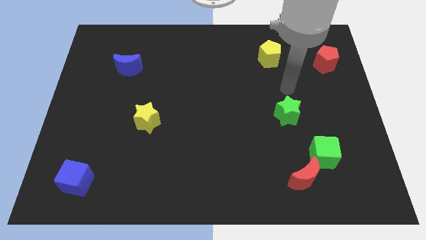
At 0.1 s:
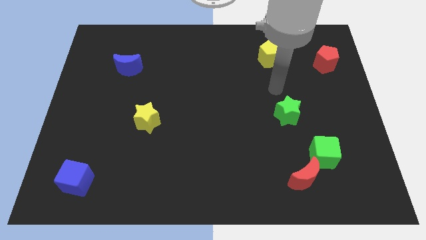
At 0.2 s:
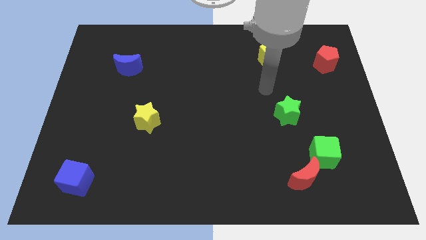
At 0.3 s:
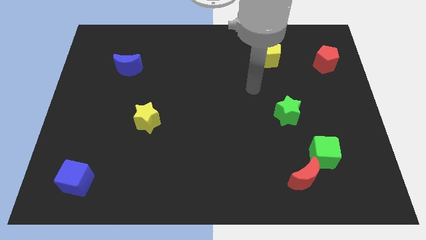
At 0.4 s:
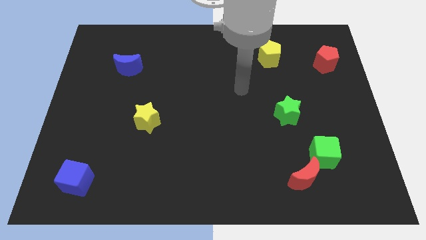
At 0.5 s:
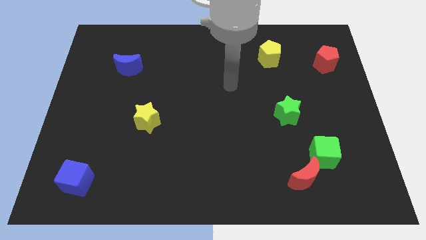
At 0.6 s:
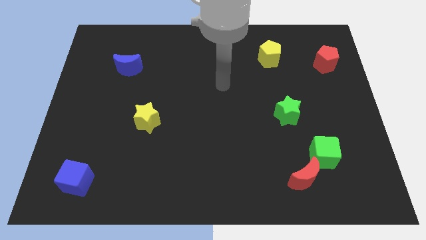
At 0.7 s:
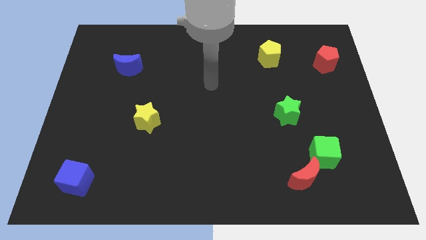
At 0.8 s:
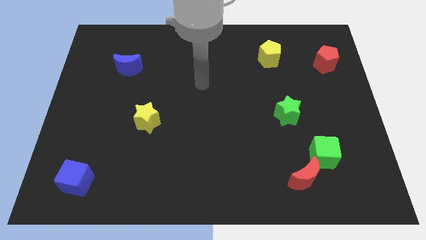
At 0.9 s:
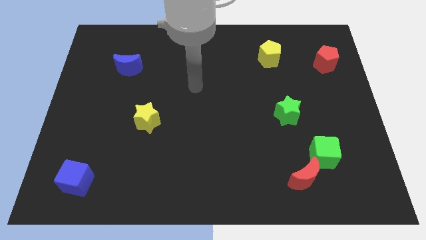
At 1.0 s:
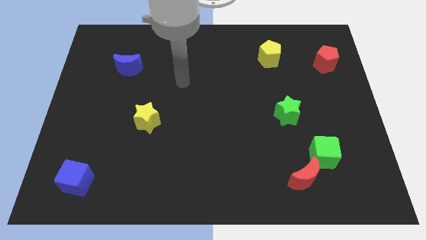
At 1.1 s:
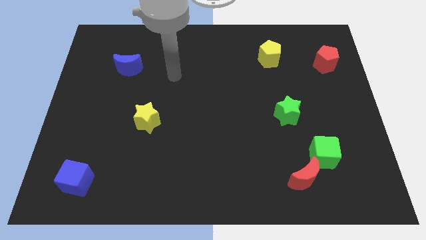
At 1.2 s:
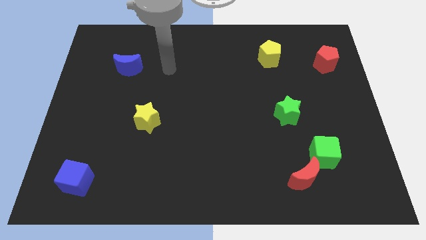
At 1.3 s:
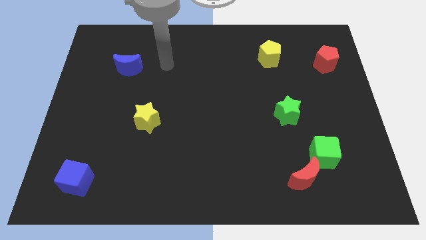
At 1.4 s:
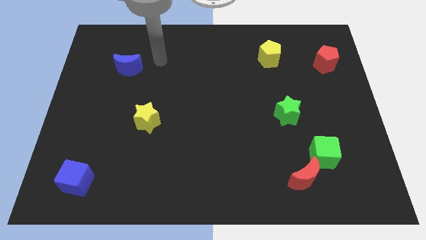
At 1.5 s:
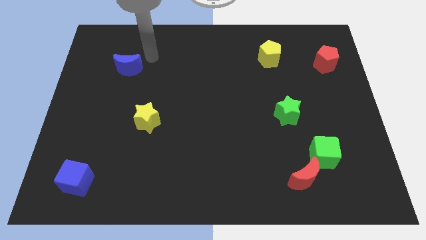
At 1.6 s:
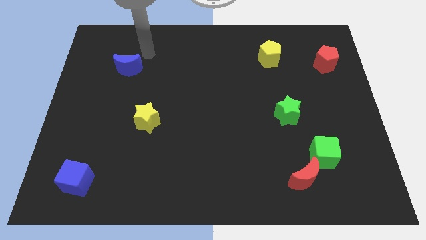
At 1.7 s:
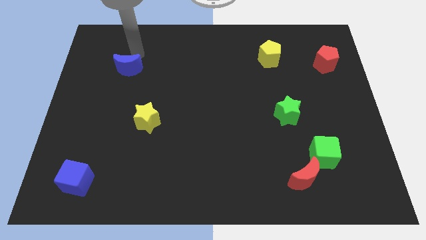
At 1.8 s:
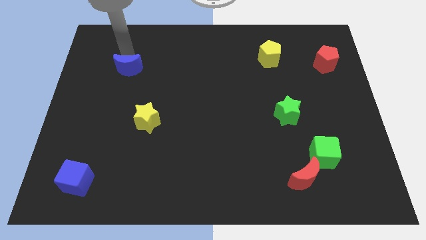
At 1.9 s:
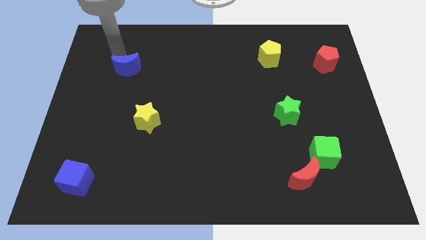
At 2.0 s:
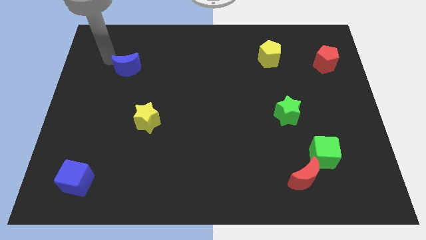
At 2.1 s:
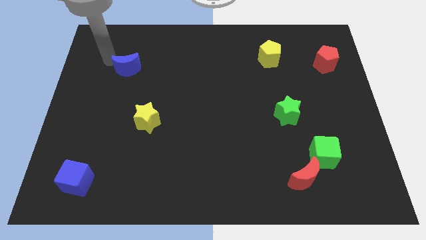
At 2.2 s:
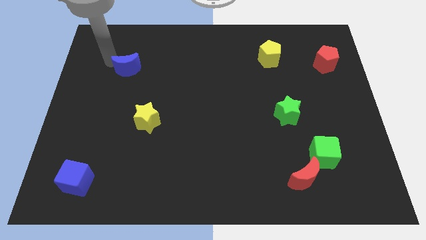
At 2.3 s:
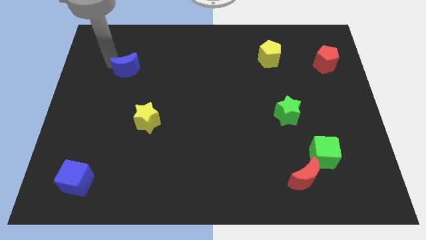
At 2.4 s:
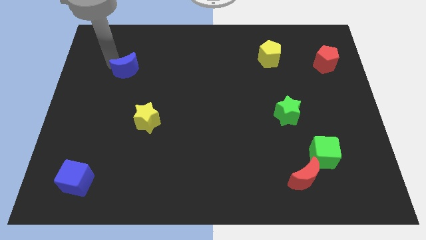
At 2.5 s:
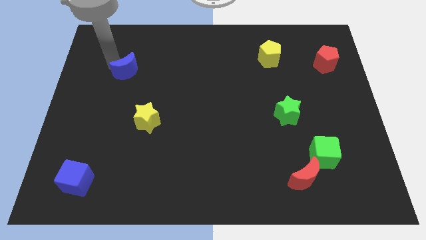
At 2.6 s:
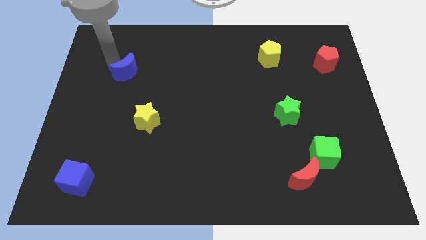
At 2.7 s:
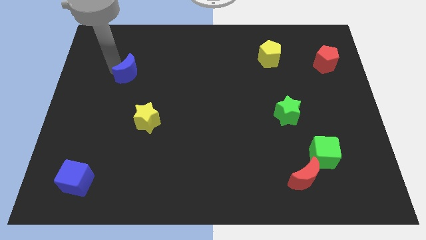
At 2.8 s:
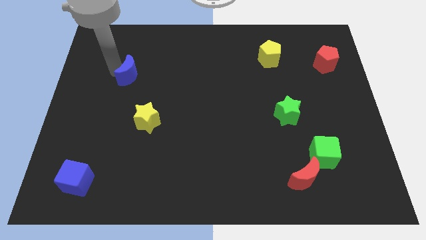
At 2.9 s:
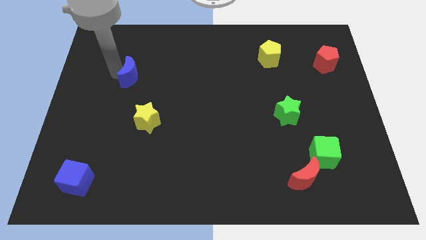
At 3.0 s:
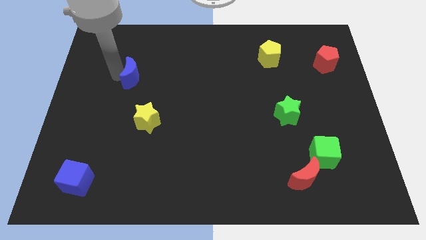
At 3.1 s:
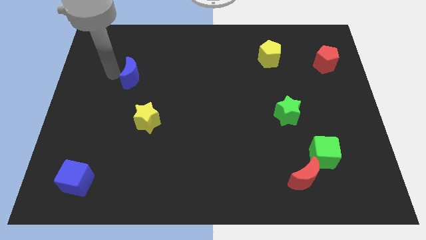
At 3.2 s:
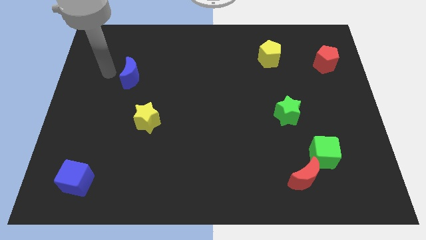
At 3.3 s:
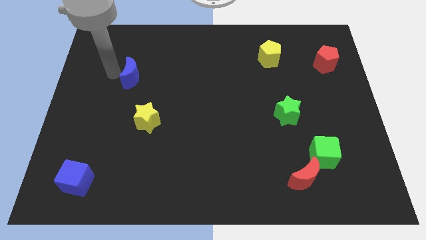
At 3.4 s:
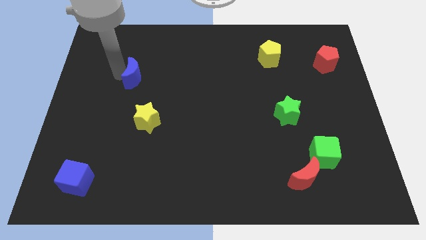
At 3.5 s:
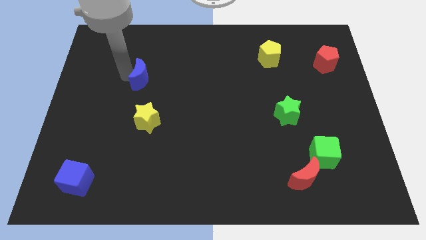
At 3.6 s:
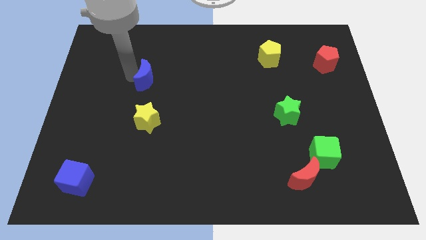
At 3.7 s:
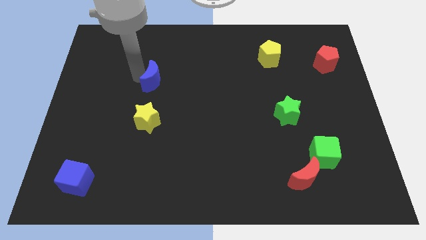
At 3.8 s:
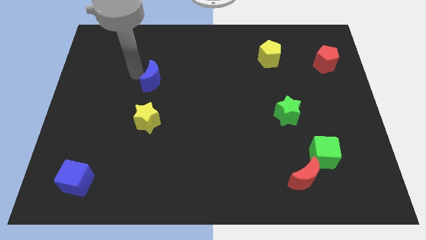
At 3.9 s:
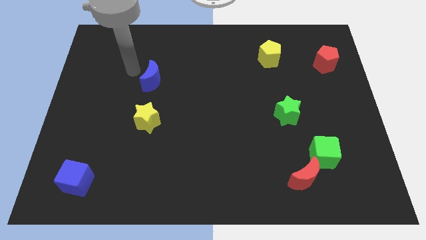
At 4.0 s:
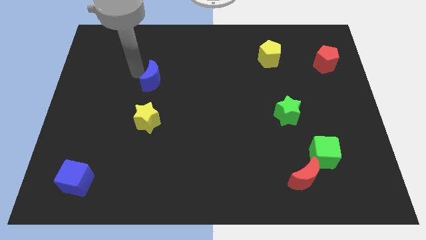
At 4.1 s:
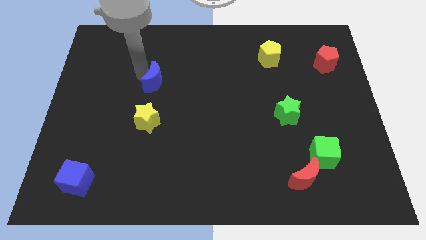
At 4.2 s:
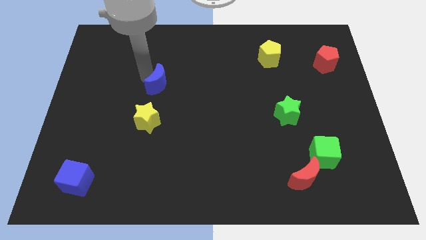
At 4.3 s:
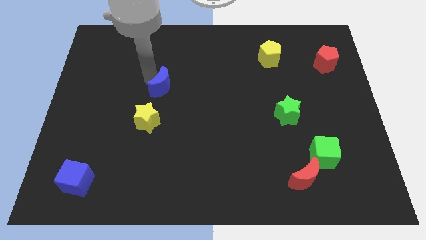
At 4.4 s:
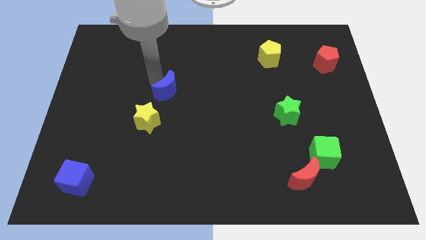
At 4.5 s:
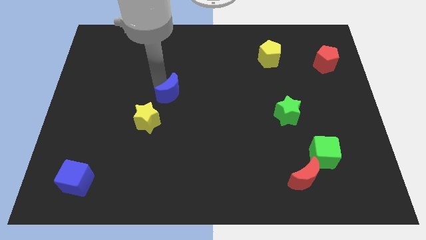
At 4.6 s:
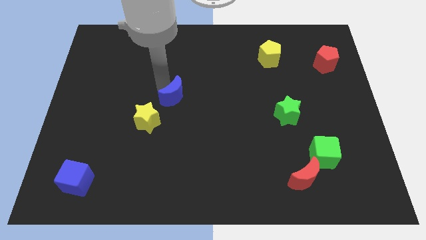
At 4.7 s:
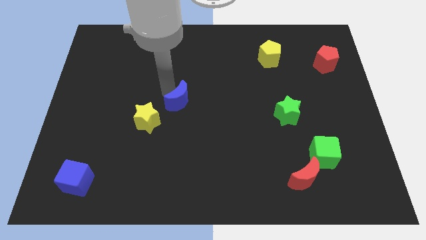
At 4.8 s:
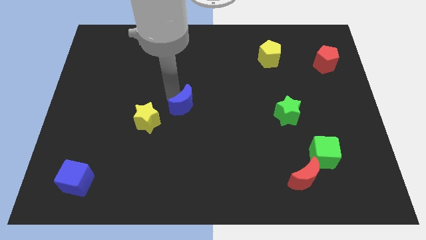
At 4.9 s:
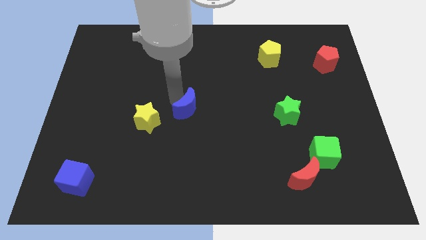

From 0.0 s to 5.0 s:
push the blue moon down and then right

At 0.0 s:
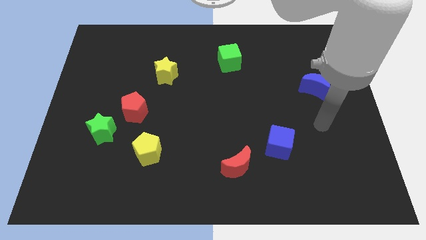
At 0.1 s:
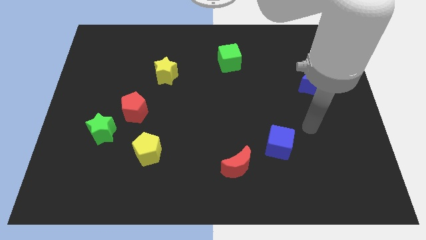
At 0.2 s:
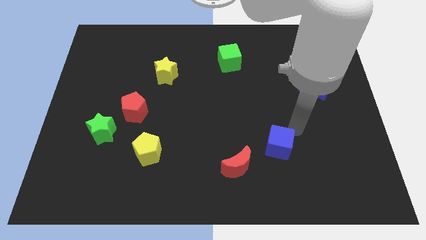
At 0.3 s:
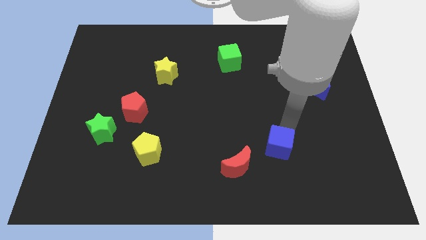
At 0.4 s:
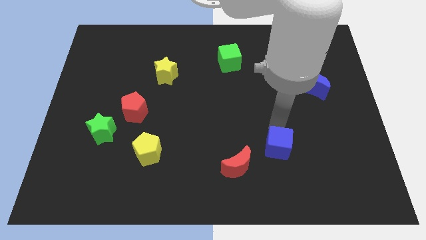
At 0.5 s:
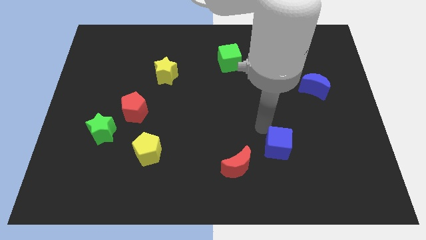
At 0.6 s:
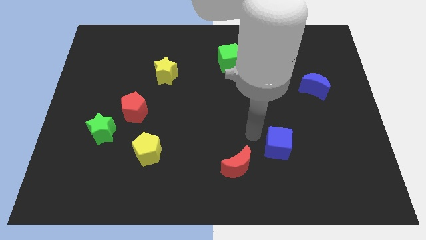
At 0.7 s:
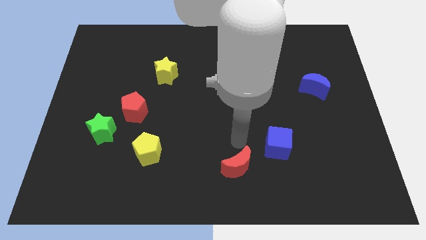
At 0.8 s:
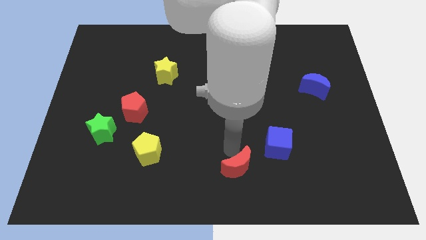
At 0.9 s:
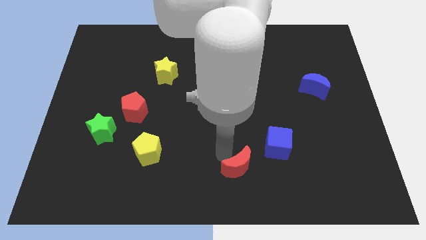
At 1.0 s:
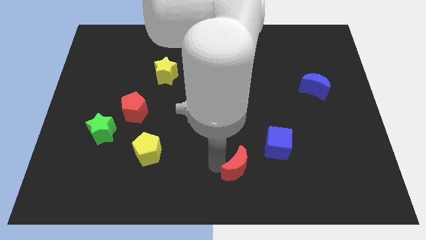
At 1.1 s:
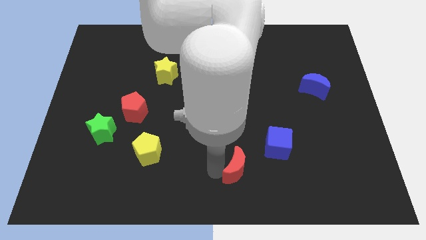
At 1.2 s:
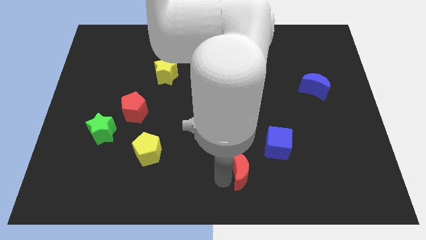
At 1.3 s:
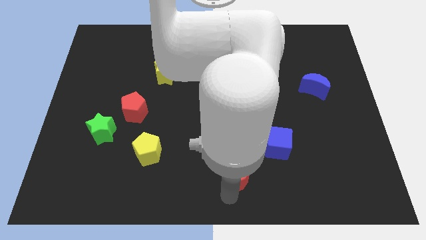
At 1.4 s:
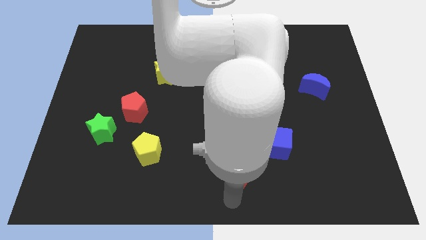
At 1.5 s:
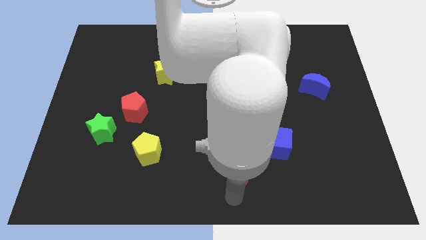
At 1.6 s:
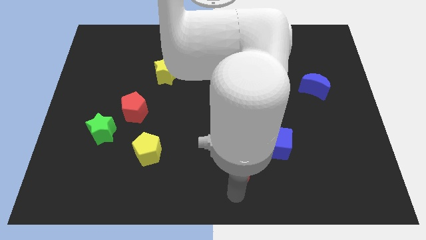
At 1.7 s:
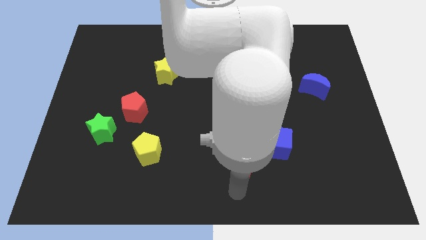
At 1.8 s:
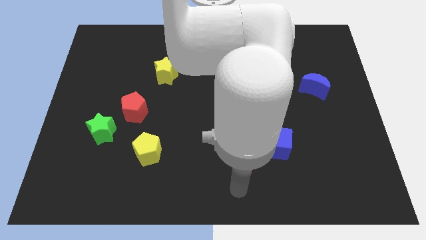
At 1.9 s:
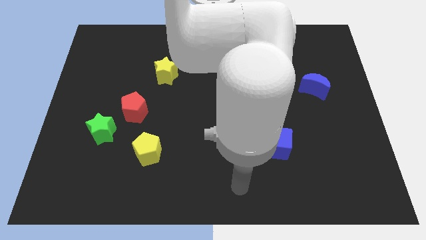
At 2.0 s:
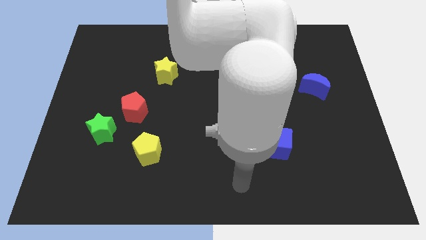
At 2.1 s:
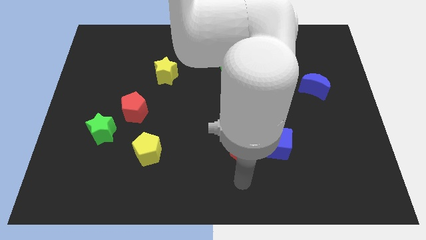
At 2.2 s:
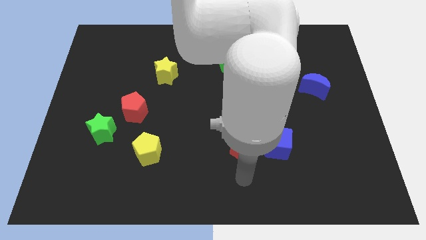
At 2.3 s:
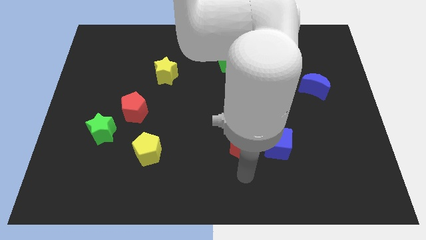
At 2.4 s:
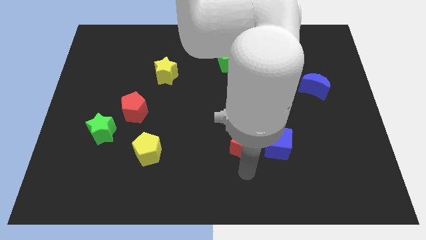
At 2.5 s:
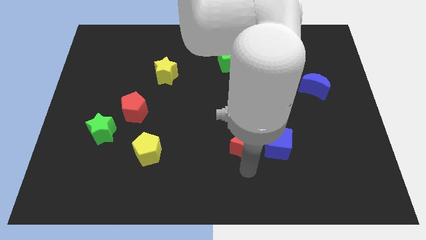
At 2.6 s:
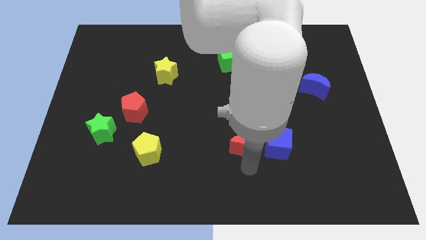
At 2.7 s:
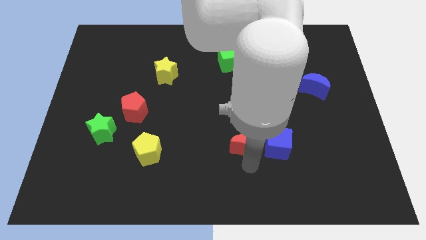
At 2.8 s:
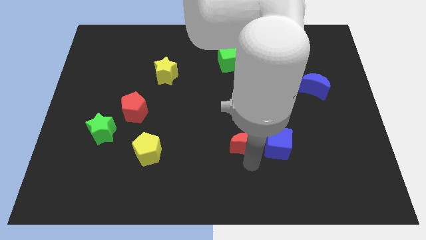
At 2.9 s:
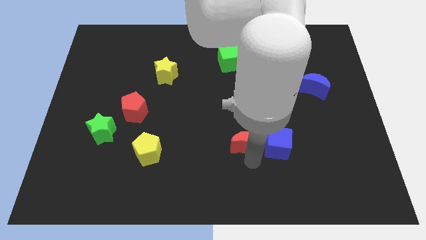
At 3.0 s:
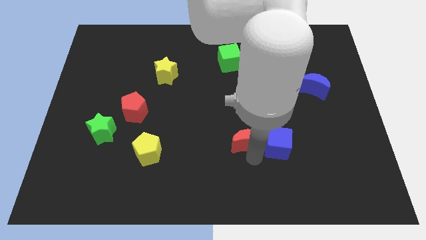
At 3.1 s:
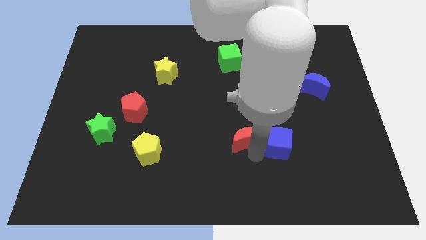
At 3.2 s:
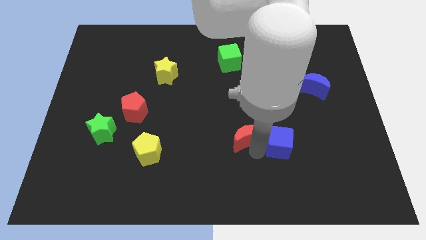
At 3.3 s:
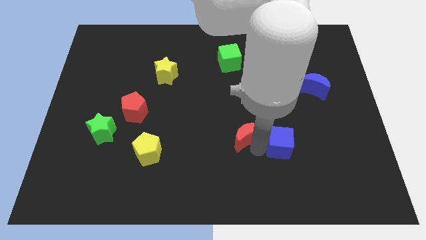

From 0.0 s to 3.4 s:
move the red moon upwards slightly
